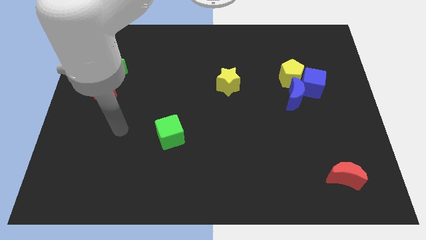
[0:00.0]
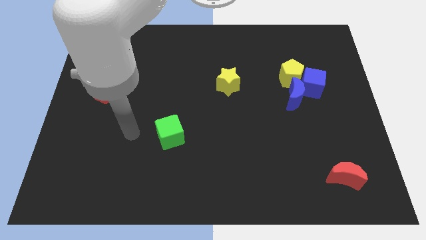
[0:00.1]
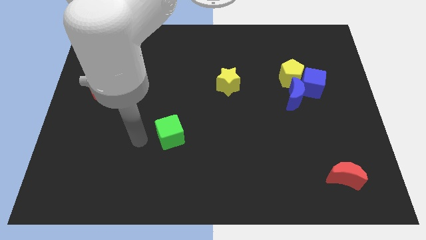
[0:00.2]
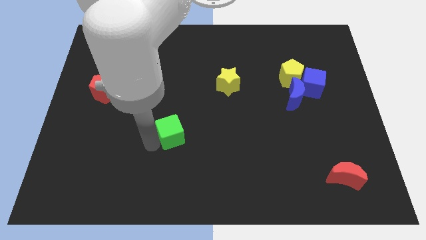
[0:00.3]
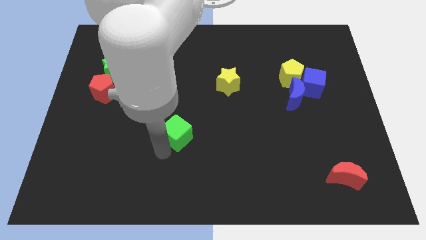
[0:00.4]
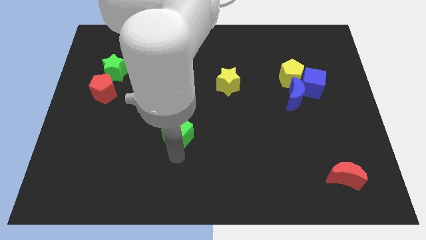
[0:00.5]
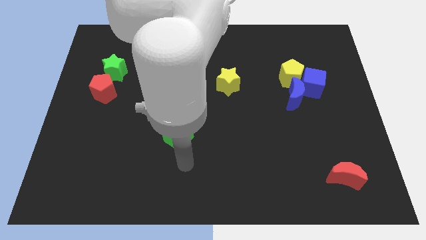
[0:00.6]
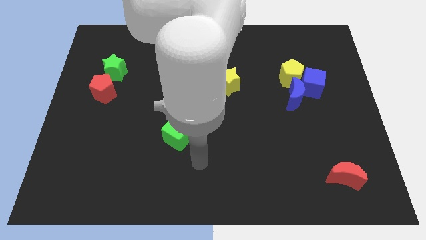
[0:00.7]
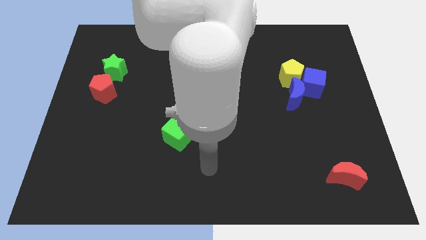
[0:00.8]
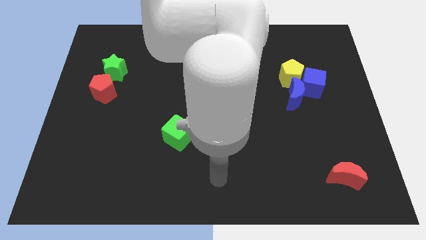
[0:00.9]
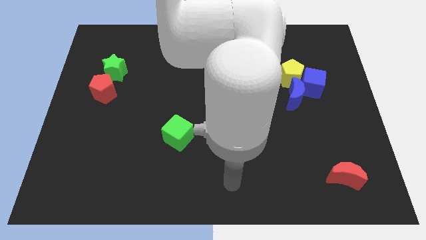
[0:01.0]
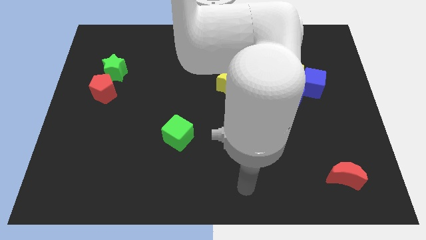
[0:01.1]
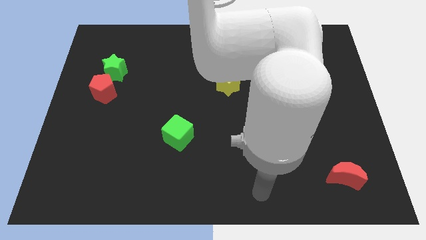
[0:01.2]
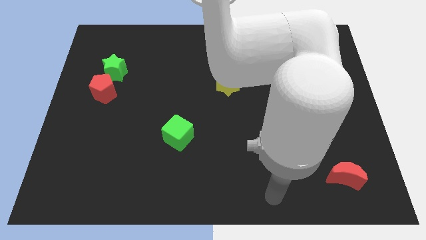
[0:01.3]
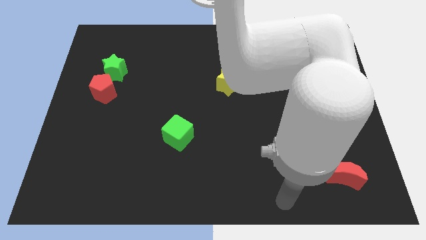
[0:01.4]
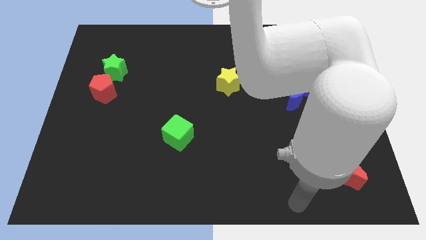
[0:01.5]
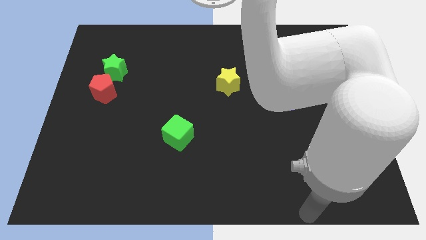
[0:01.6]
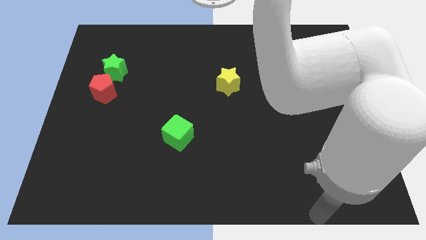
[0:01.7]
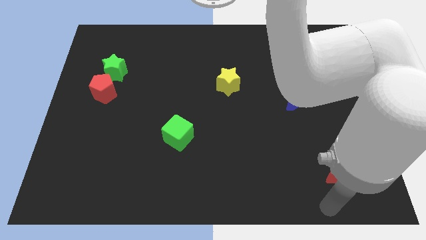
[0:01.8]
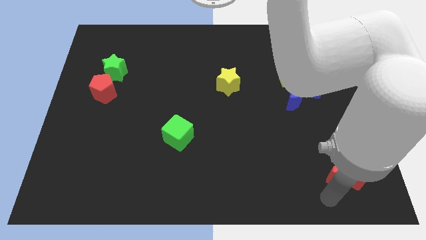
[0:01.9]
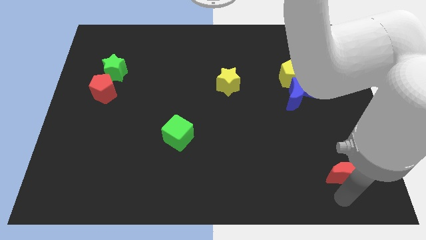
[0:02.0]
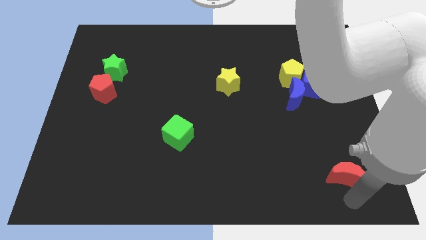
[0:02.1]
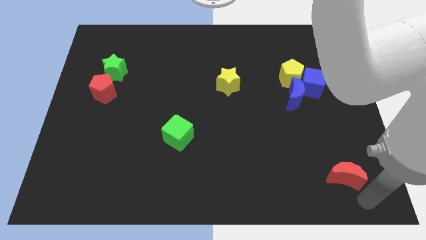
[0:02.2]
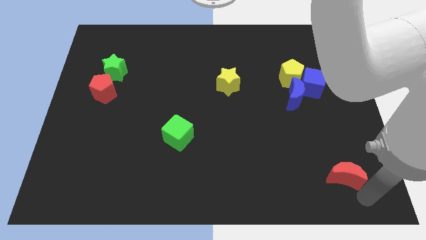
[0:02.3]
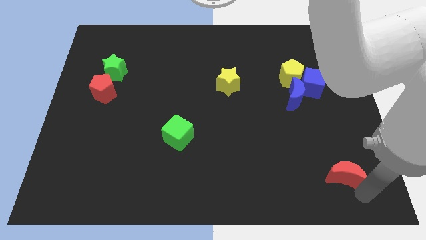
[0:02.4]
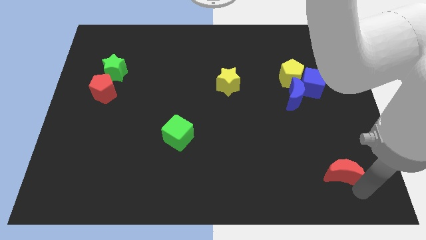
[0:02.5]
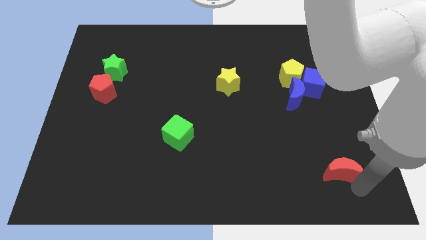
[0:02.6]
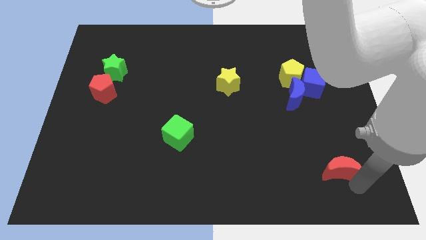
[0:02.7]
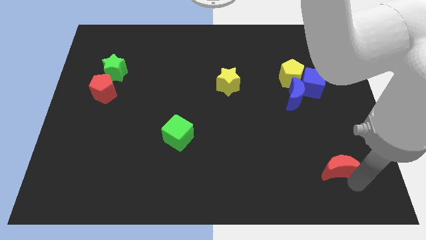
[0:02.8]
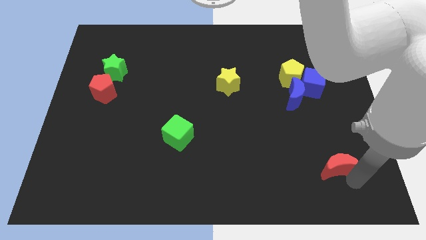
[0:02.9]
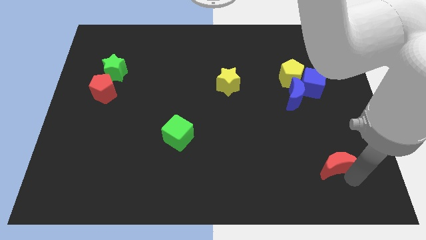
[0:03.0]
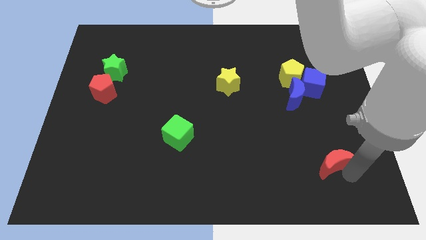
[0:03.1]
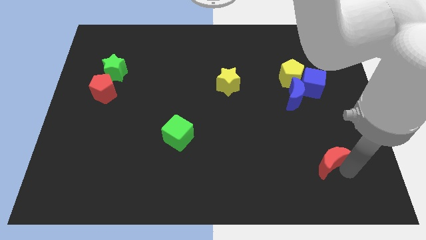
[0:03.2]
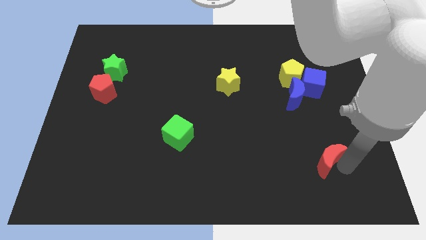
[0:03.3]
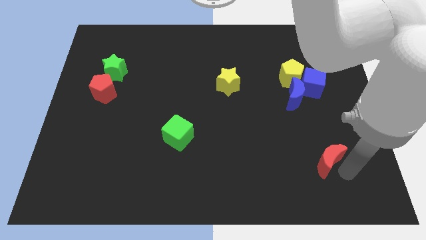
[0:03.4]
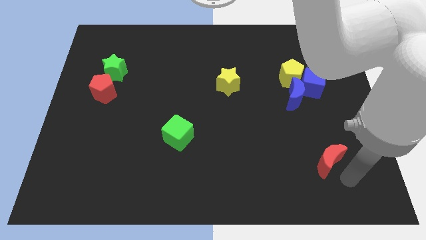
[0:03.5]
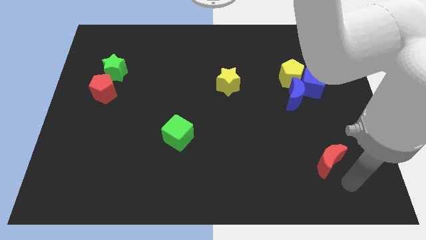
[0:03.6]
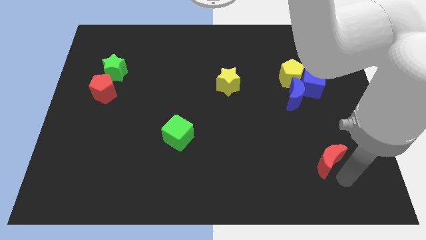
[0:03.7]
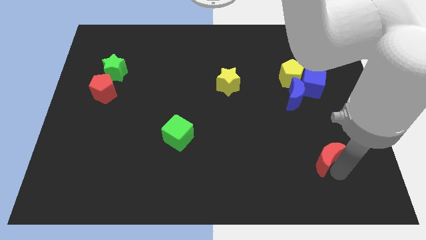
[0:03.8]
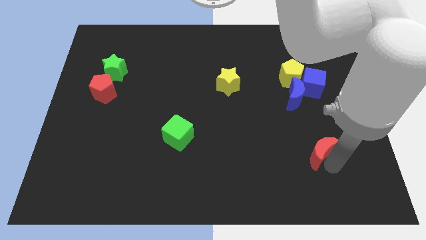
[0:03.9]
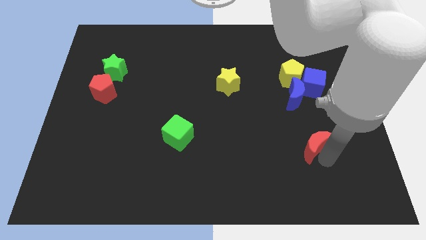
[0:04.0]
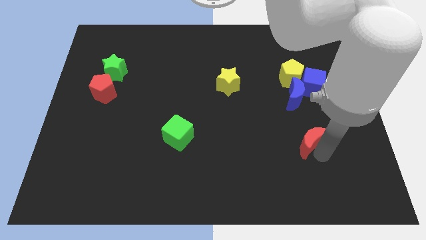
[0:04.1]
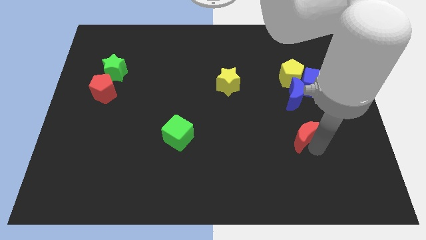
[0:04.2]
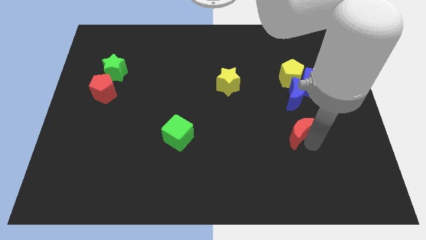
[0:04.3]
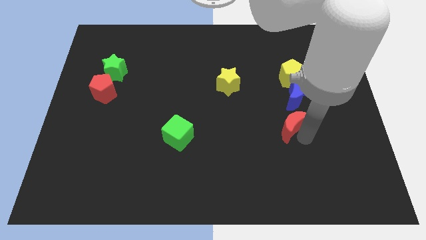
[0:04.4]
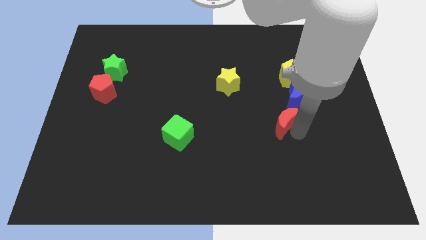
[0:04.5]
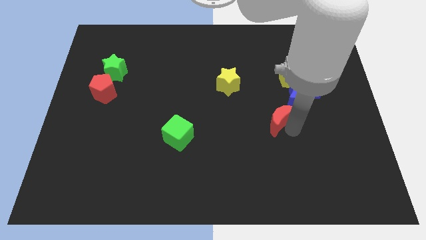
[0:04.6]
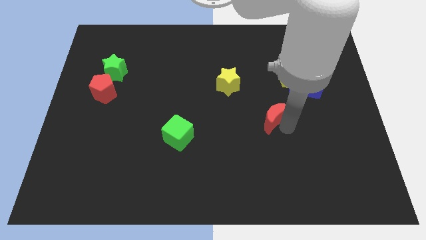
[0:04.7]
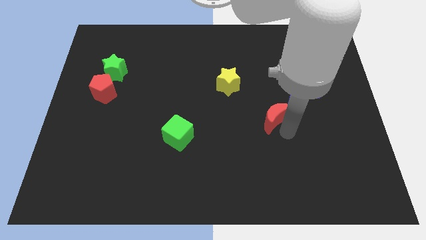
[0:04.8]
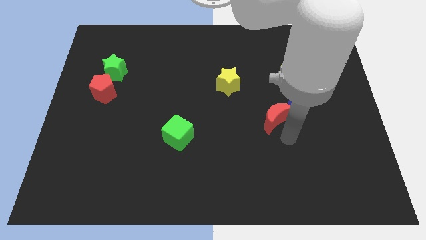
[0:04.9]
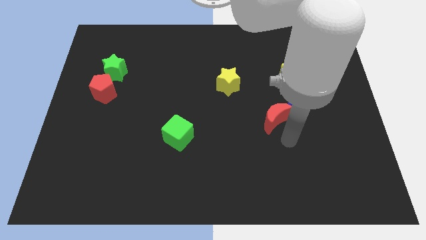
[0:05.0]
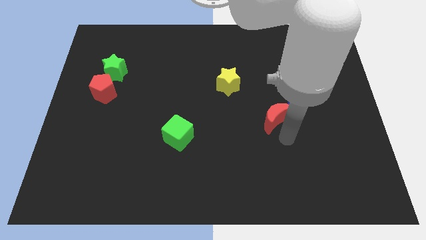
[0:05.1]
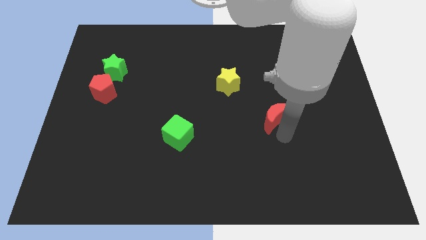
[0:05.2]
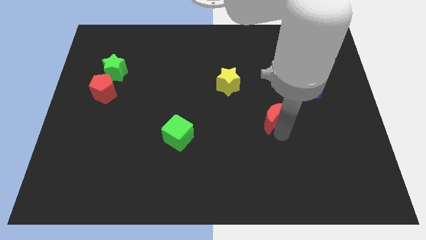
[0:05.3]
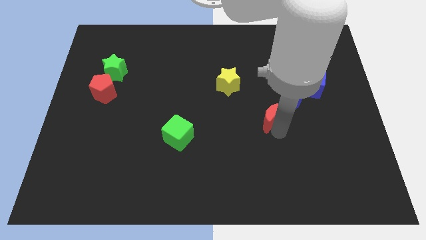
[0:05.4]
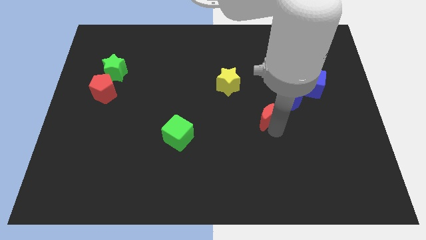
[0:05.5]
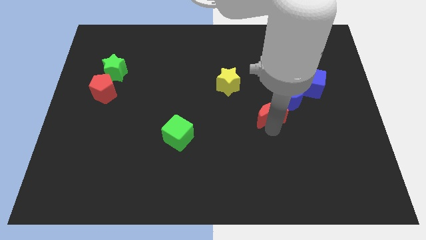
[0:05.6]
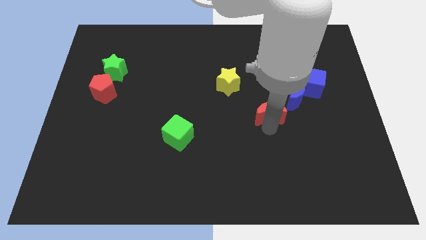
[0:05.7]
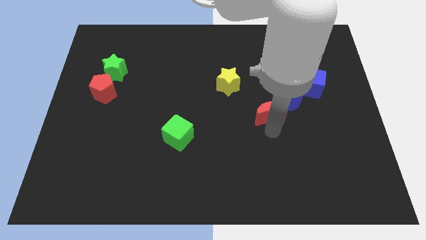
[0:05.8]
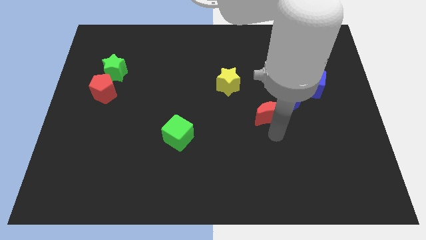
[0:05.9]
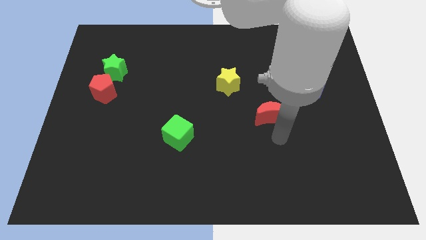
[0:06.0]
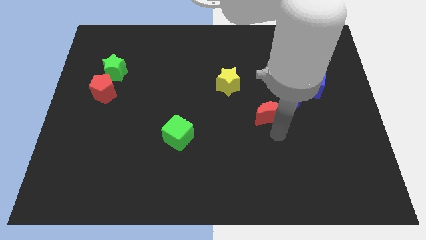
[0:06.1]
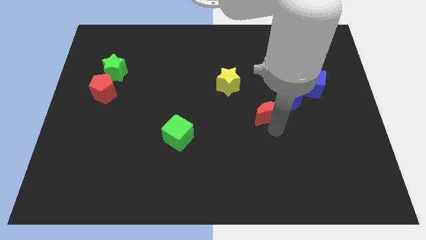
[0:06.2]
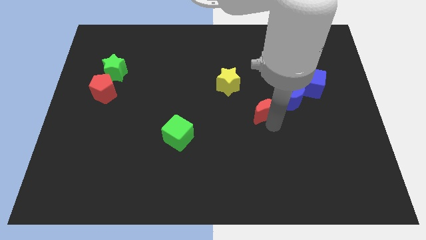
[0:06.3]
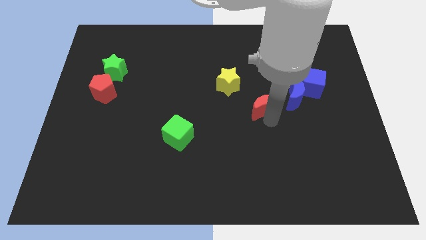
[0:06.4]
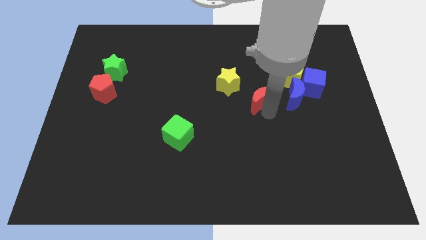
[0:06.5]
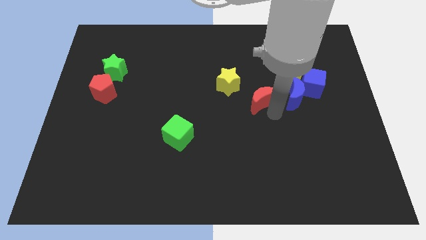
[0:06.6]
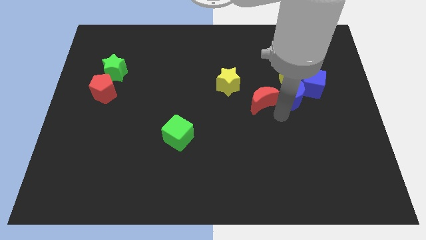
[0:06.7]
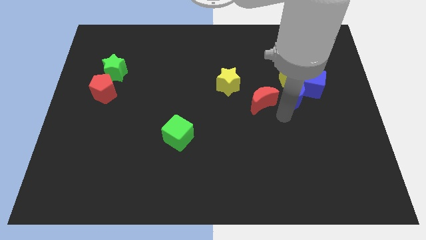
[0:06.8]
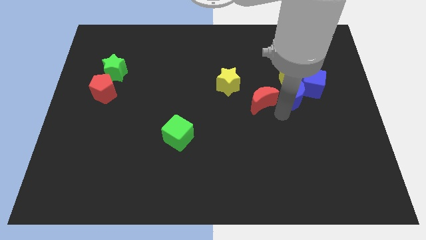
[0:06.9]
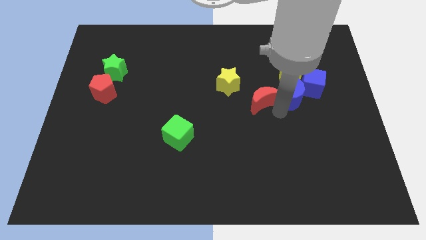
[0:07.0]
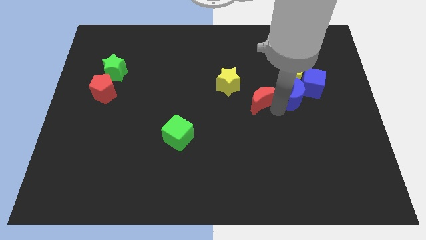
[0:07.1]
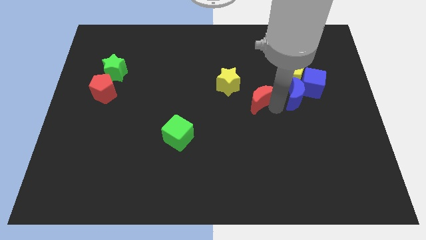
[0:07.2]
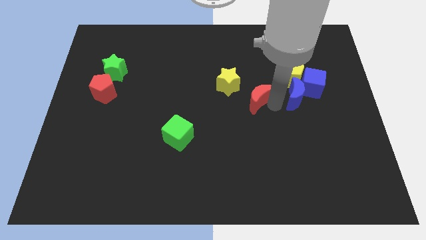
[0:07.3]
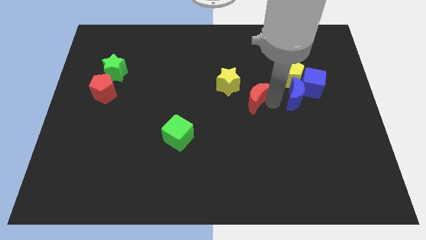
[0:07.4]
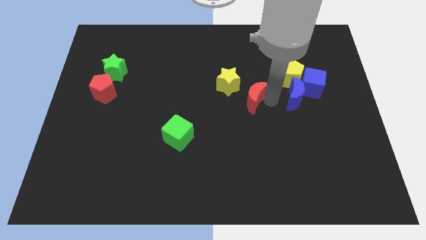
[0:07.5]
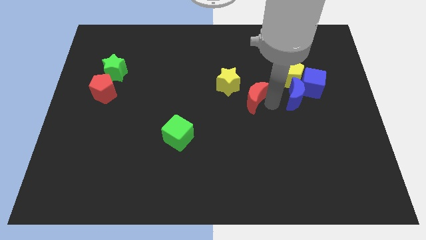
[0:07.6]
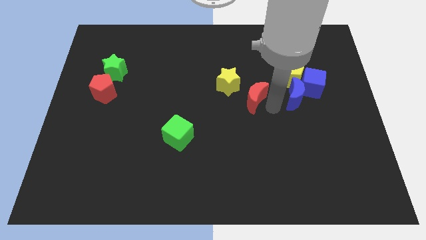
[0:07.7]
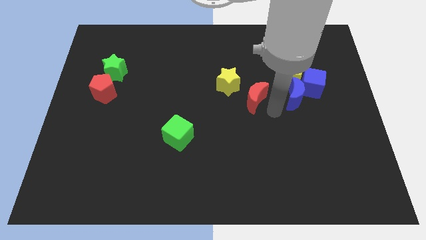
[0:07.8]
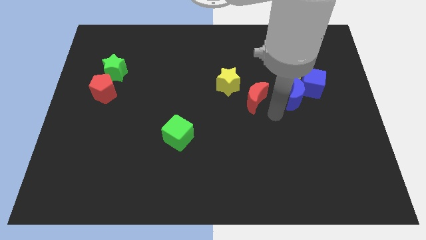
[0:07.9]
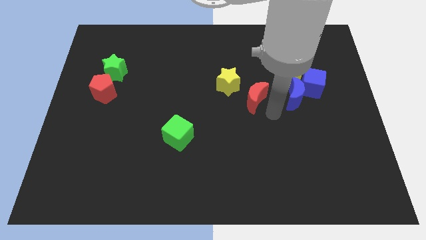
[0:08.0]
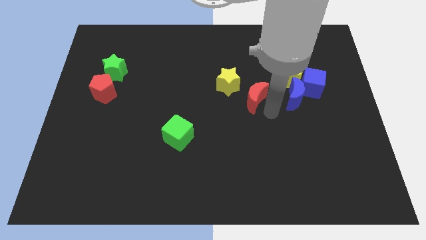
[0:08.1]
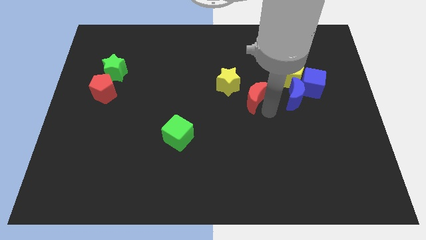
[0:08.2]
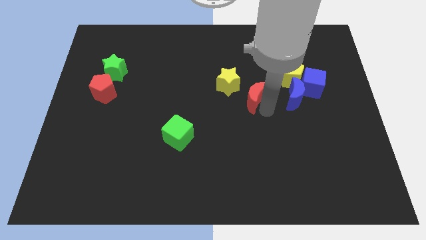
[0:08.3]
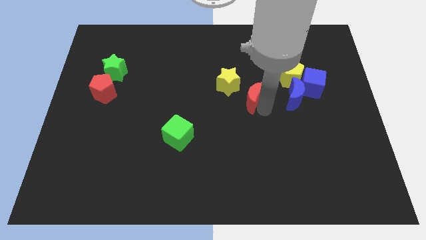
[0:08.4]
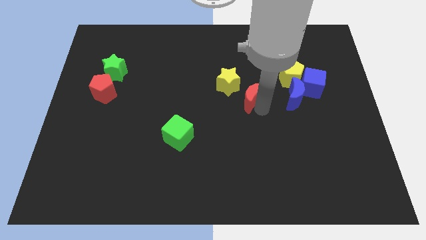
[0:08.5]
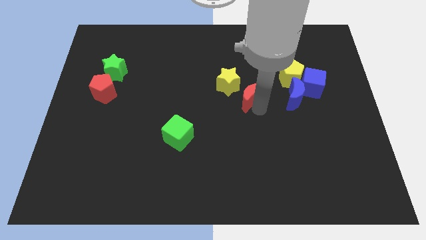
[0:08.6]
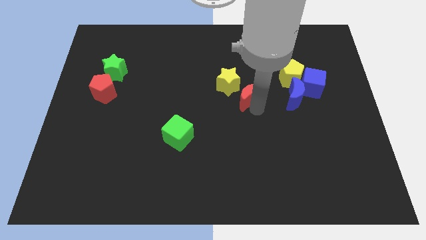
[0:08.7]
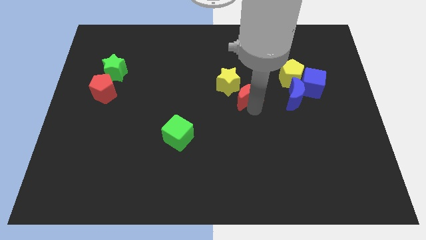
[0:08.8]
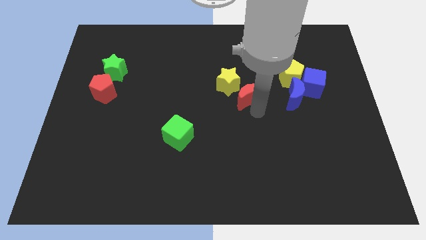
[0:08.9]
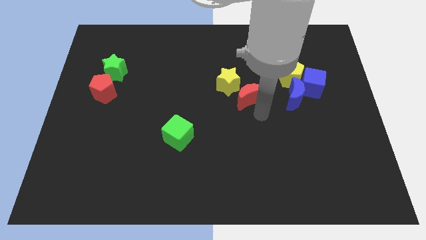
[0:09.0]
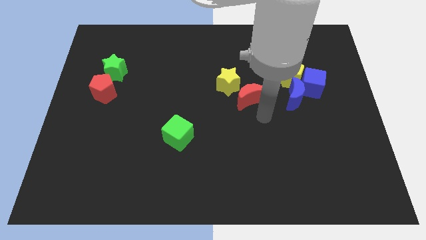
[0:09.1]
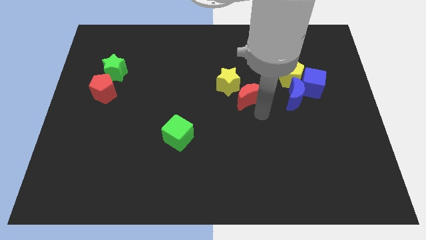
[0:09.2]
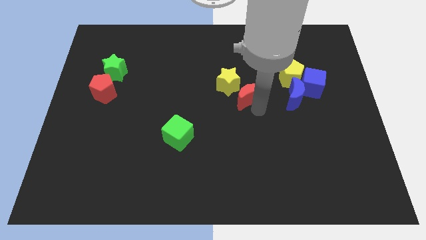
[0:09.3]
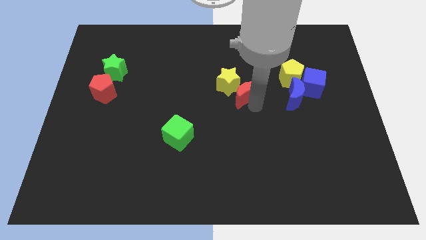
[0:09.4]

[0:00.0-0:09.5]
push the red moon towards the yellow star
